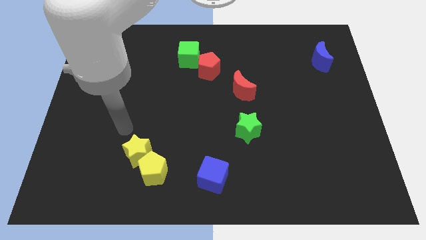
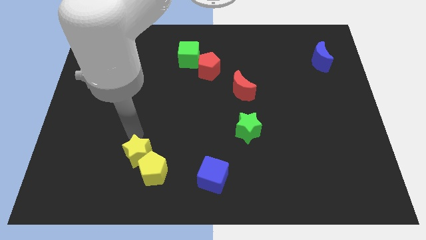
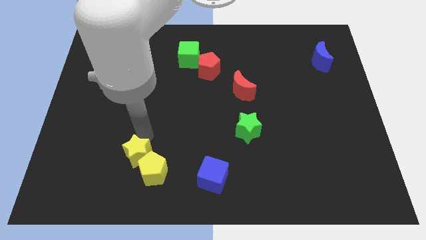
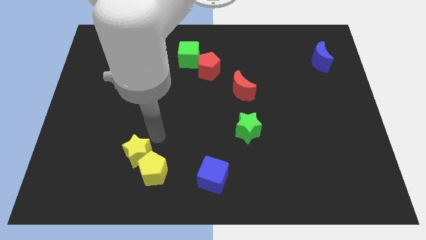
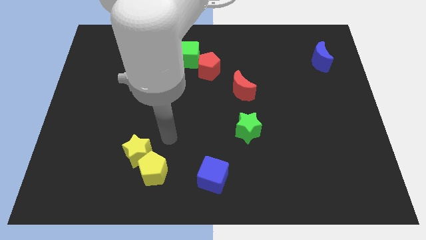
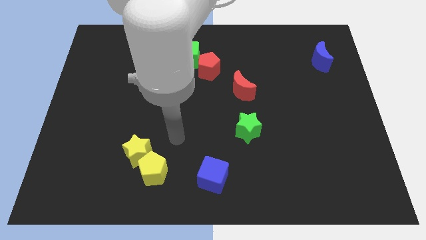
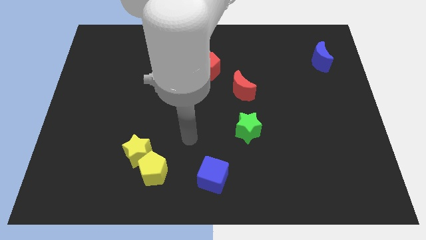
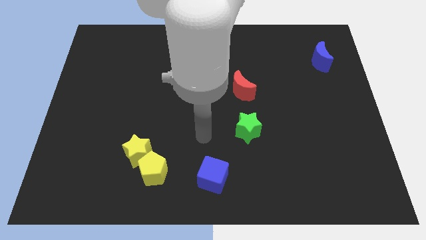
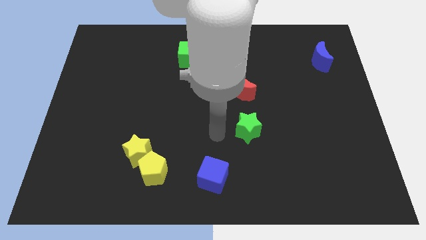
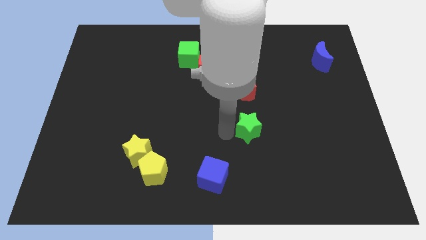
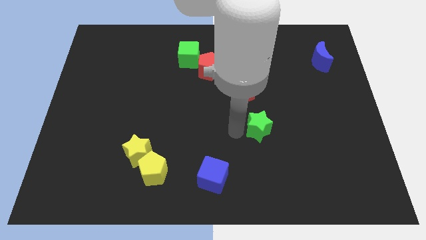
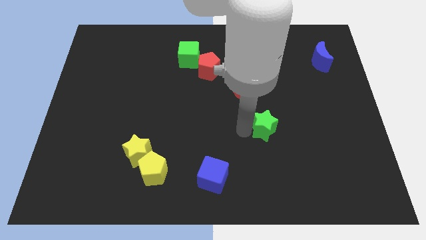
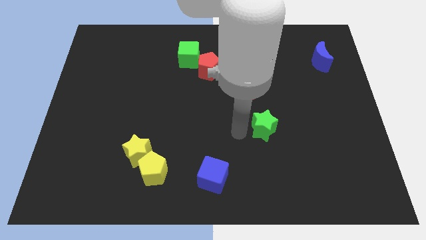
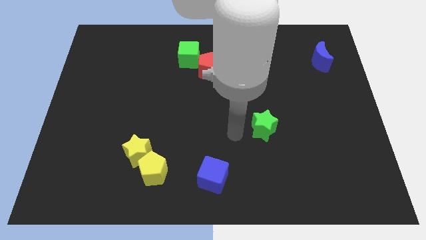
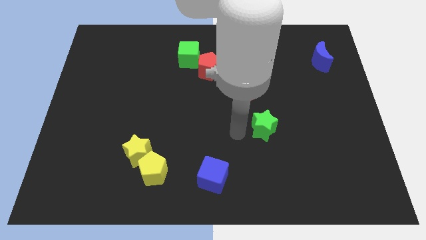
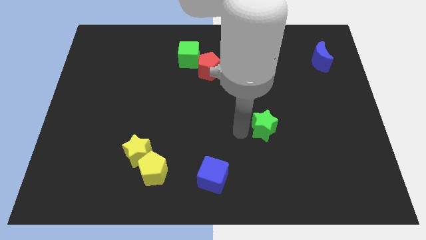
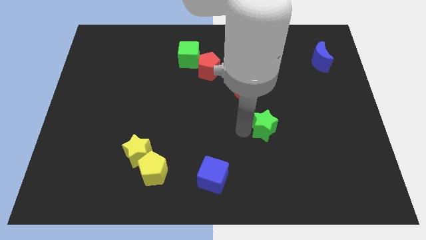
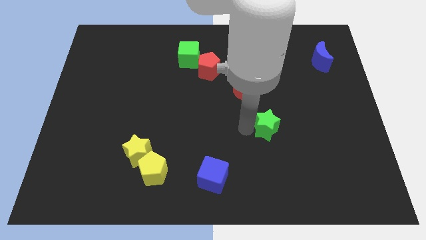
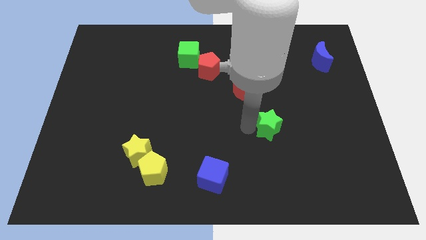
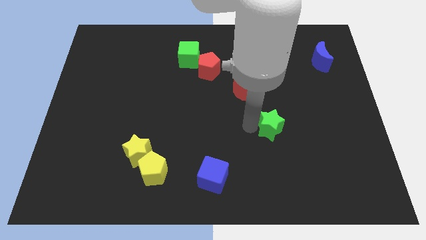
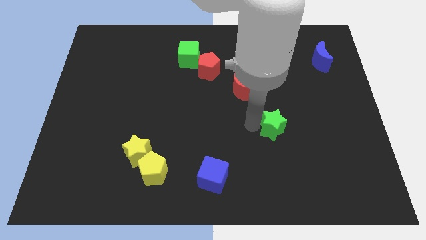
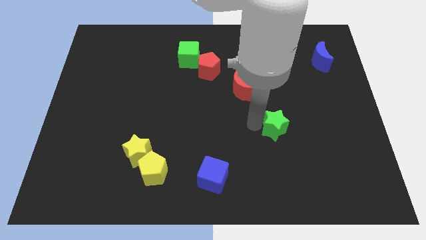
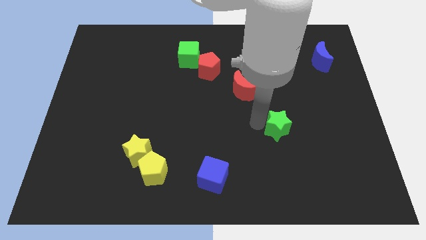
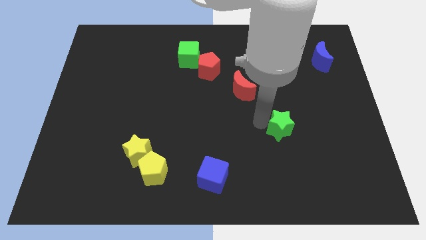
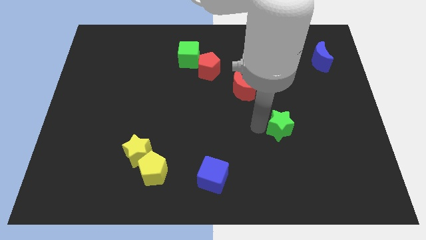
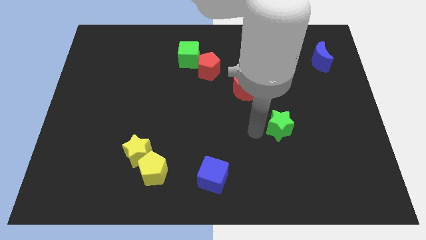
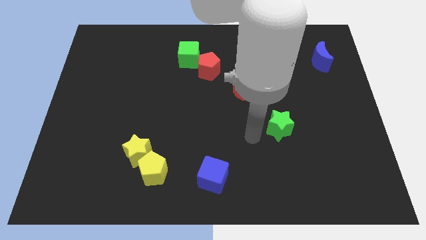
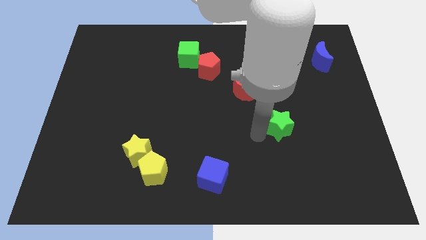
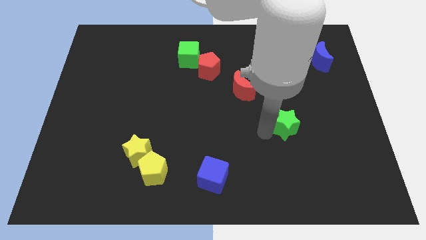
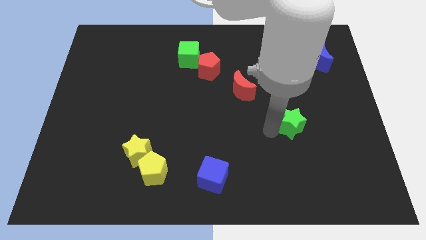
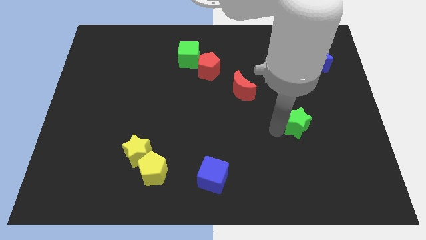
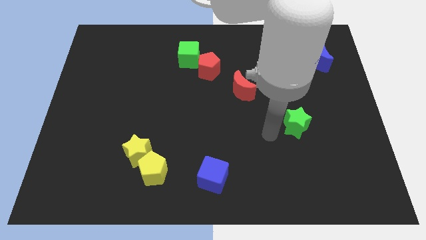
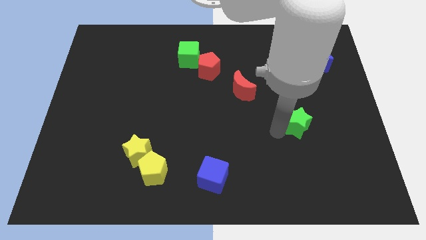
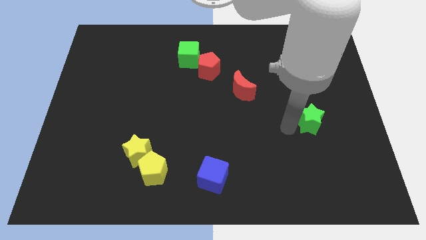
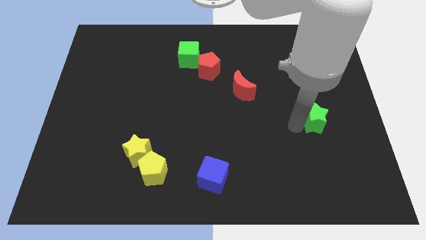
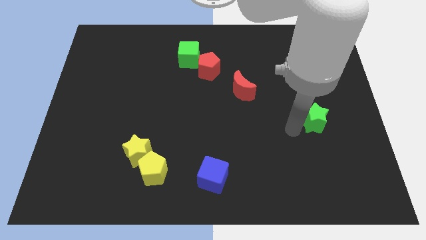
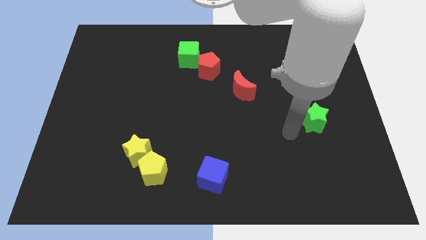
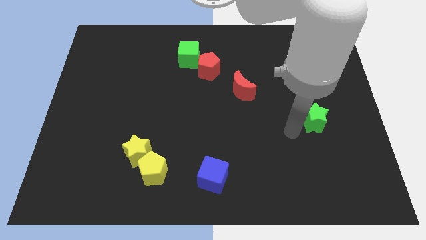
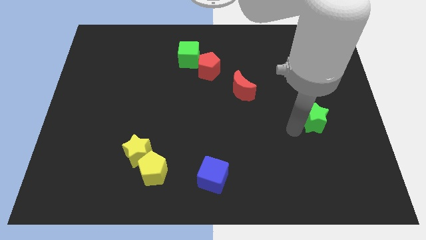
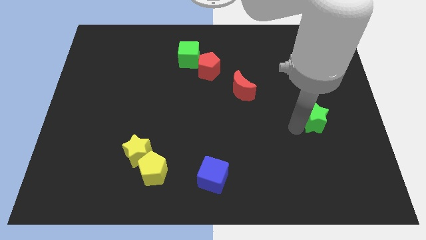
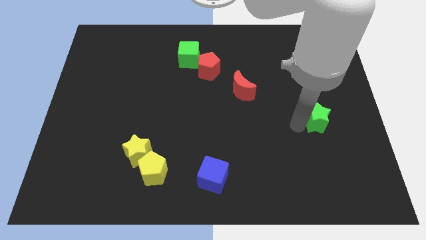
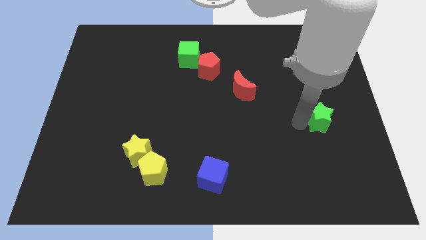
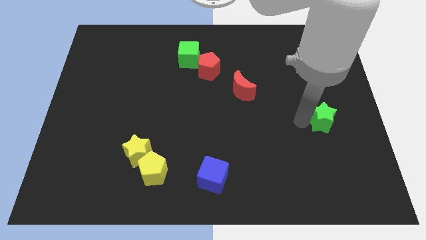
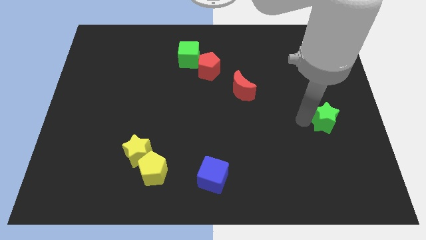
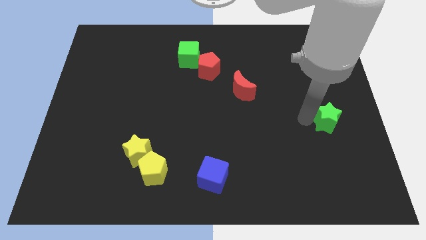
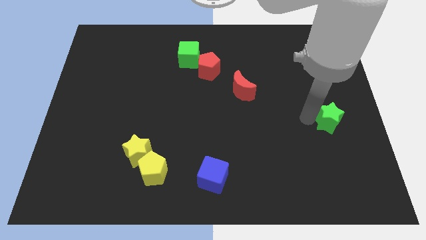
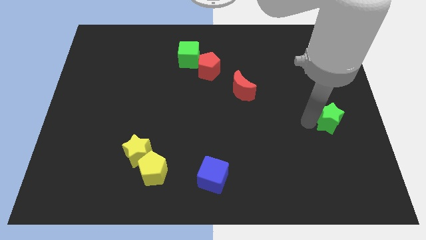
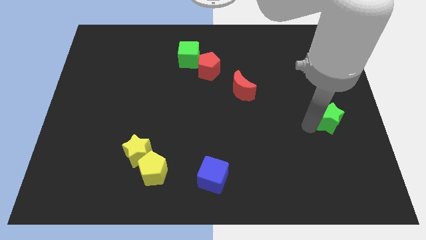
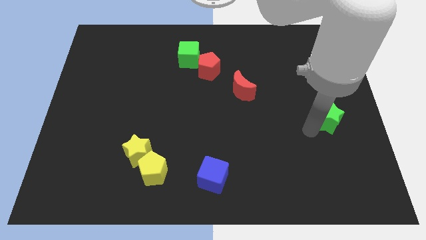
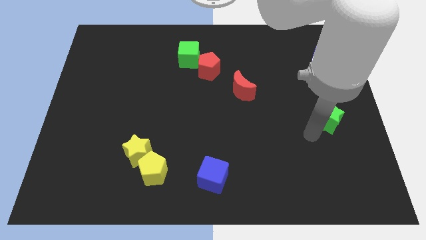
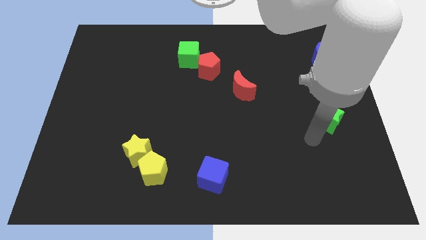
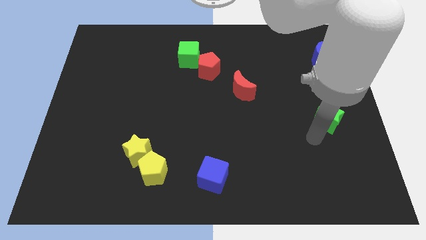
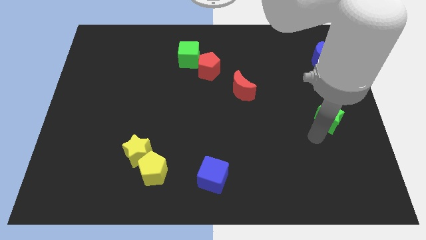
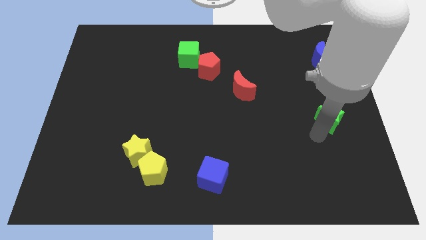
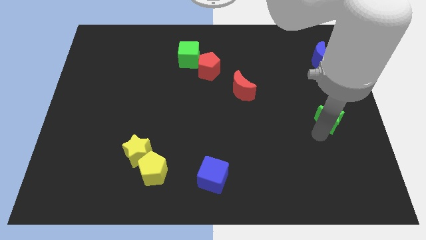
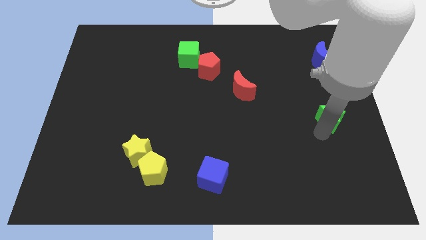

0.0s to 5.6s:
slide the green star to the right side
